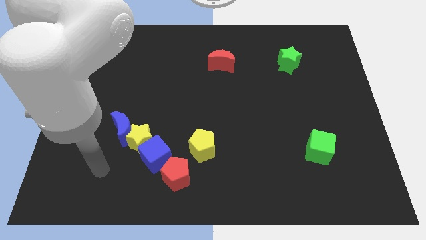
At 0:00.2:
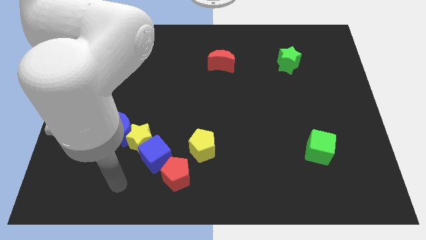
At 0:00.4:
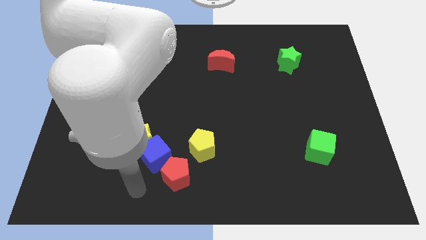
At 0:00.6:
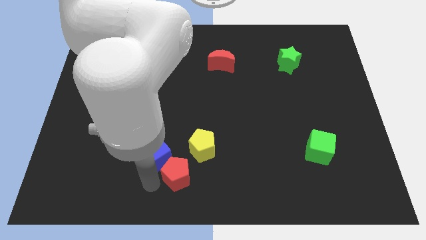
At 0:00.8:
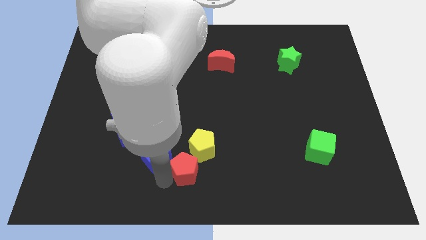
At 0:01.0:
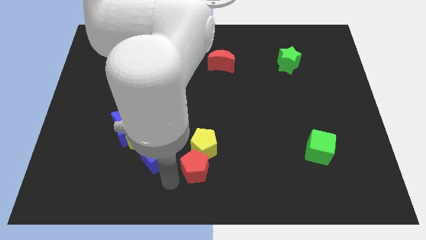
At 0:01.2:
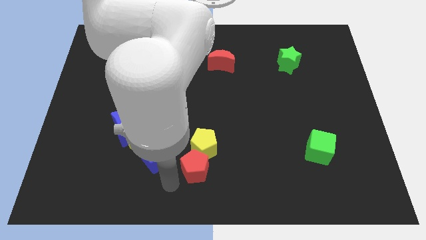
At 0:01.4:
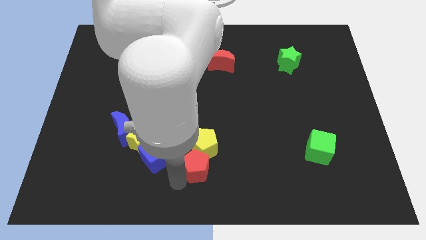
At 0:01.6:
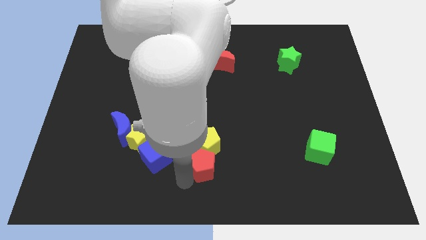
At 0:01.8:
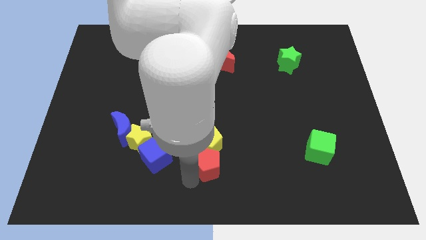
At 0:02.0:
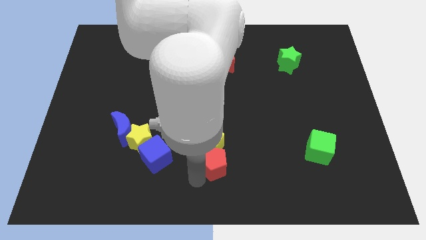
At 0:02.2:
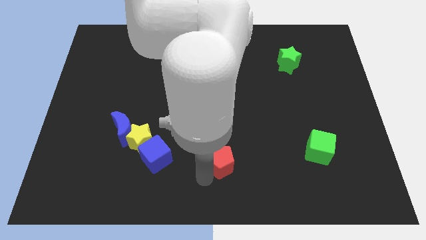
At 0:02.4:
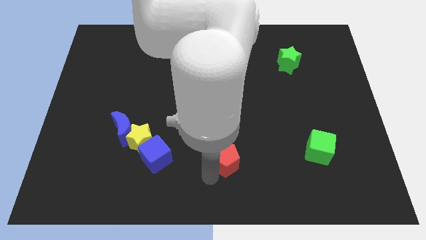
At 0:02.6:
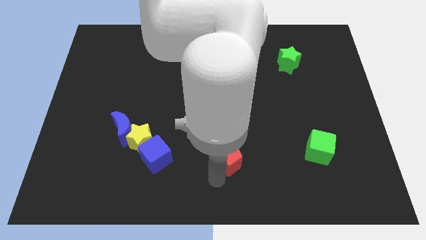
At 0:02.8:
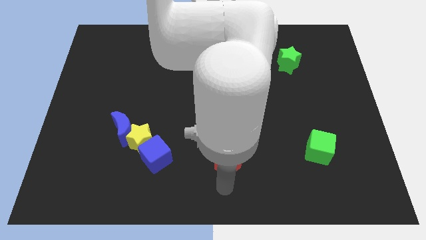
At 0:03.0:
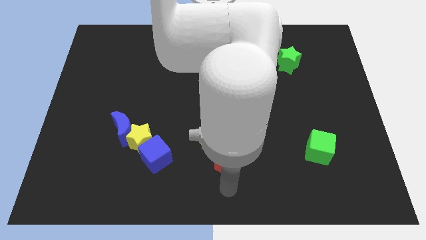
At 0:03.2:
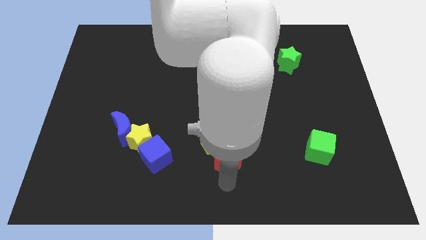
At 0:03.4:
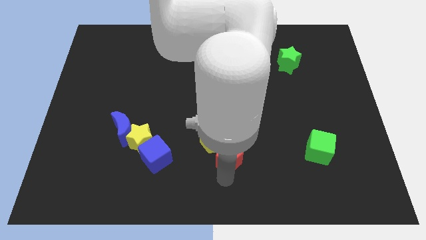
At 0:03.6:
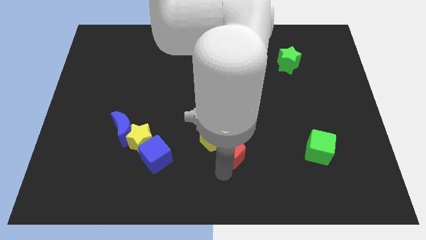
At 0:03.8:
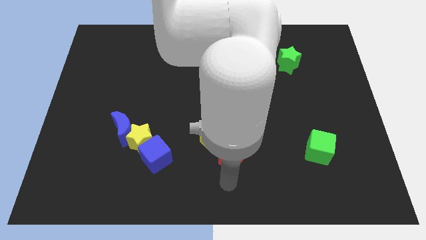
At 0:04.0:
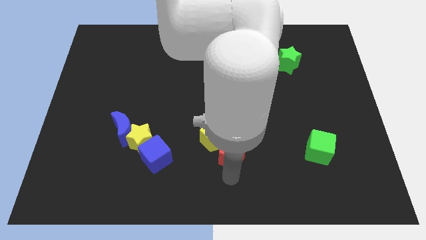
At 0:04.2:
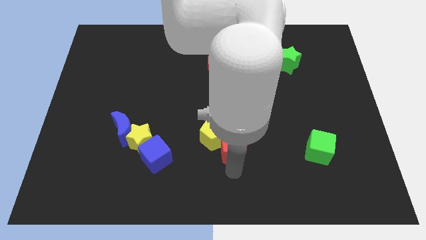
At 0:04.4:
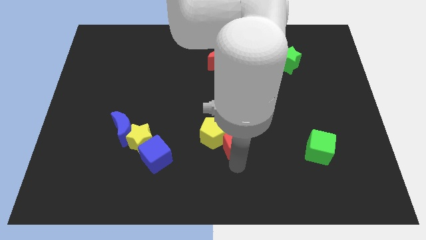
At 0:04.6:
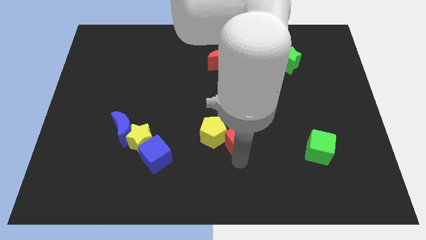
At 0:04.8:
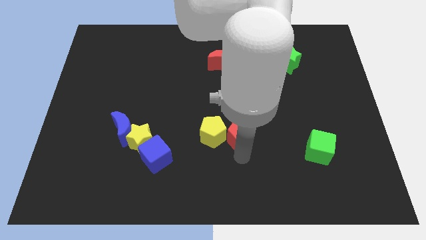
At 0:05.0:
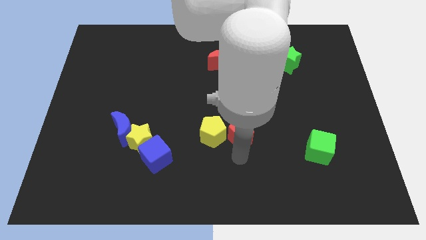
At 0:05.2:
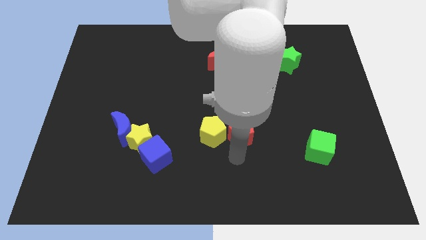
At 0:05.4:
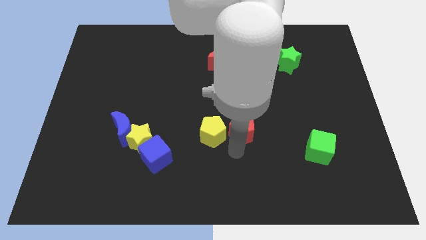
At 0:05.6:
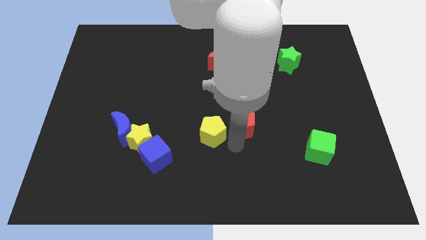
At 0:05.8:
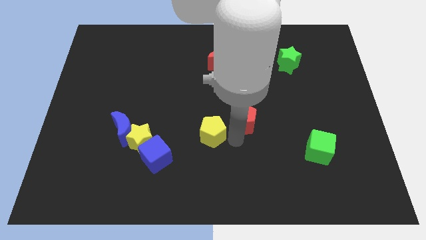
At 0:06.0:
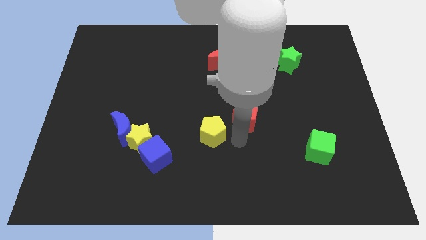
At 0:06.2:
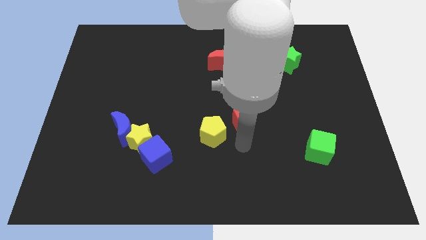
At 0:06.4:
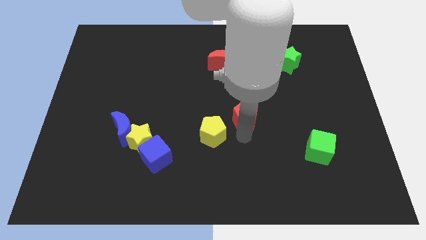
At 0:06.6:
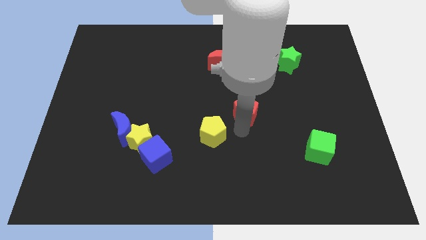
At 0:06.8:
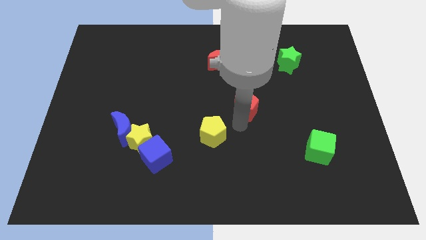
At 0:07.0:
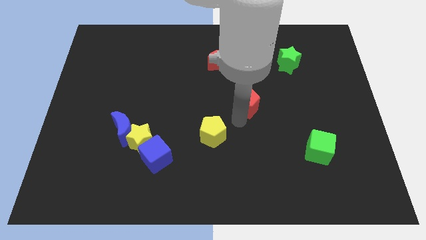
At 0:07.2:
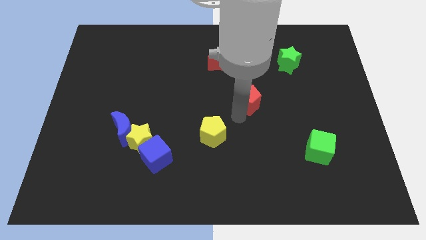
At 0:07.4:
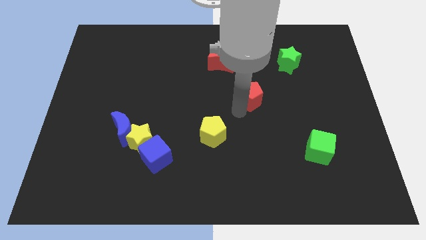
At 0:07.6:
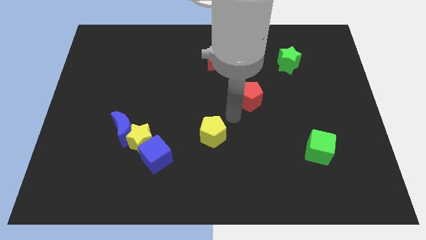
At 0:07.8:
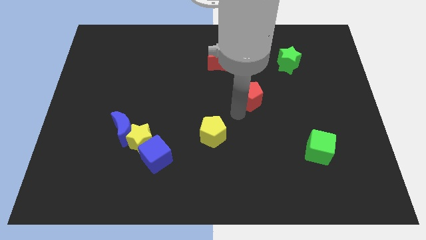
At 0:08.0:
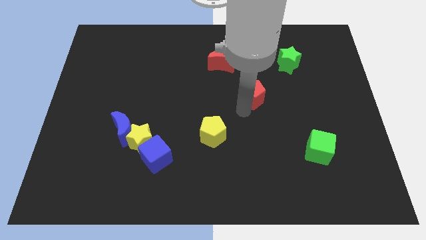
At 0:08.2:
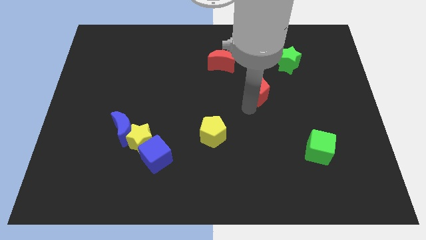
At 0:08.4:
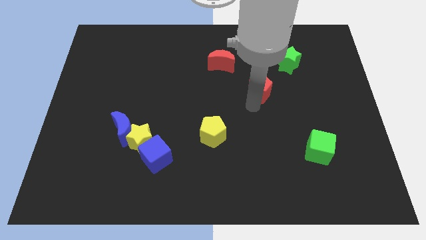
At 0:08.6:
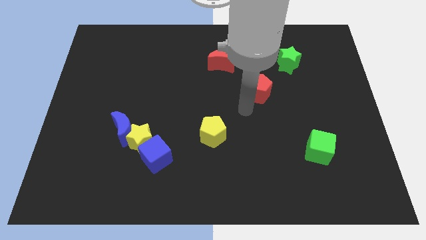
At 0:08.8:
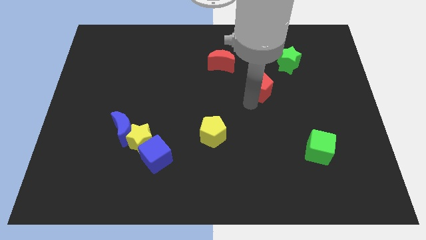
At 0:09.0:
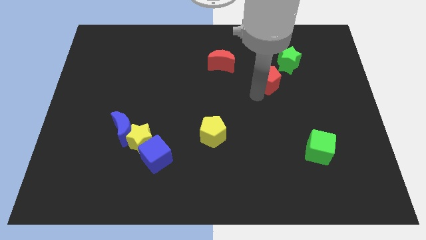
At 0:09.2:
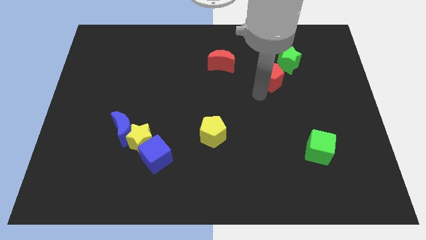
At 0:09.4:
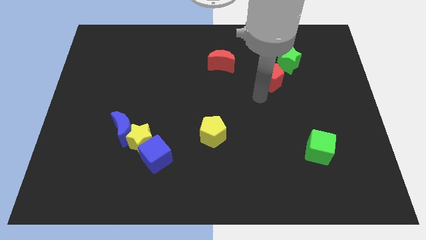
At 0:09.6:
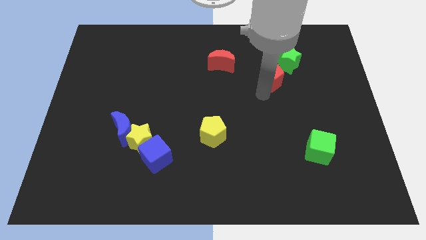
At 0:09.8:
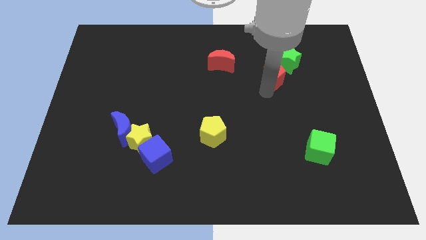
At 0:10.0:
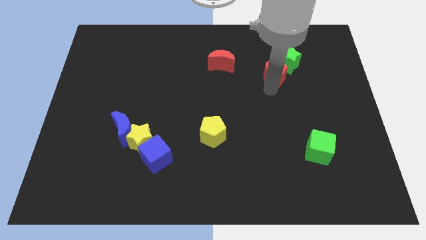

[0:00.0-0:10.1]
push the red pentagon next to the green star

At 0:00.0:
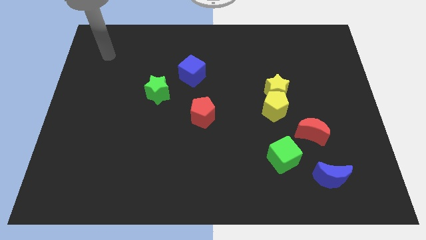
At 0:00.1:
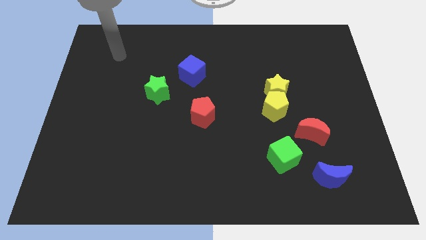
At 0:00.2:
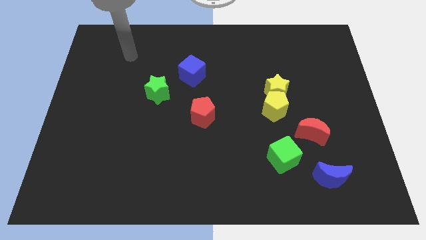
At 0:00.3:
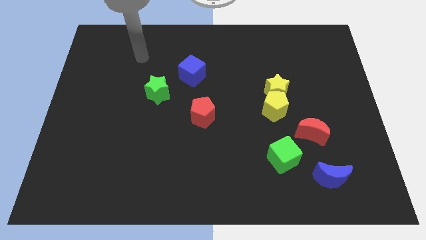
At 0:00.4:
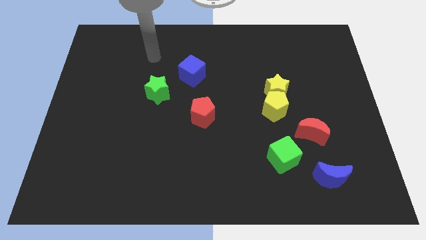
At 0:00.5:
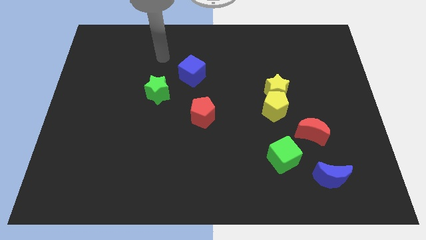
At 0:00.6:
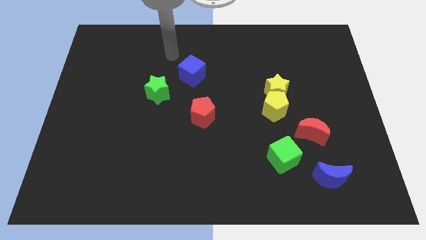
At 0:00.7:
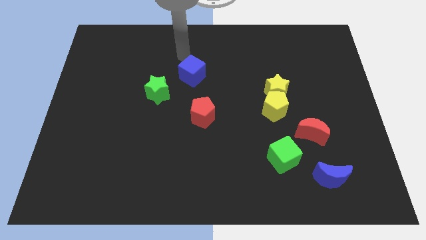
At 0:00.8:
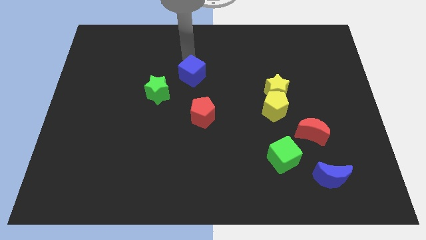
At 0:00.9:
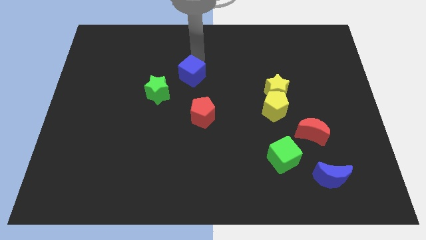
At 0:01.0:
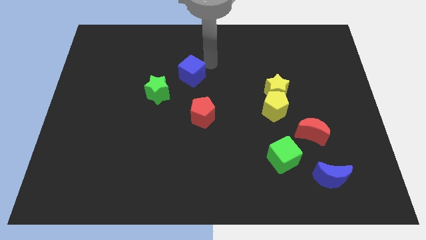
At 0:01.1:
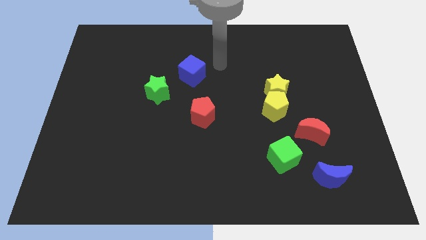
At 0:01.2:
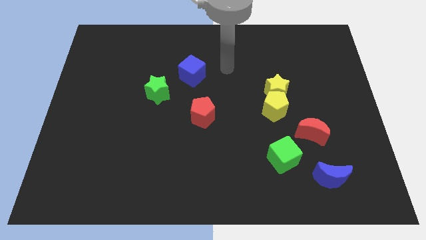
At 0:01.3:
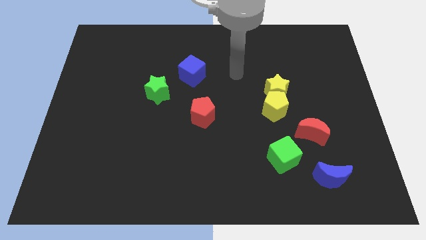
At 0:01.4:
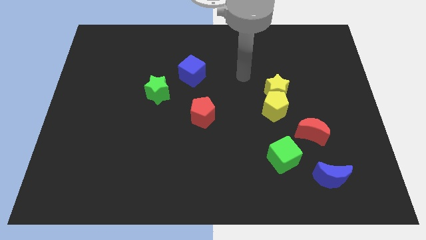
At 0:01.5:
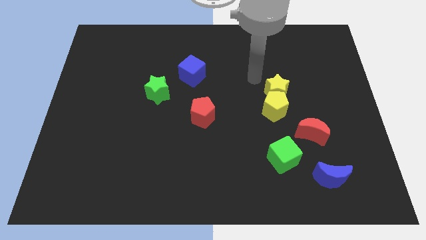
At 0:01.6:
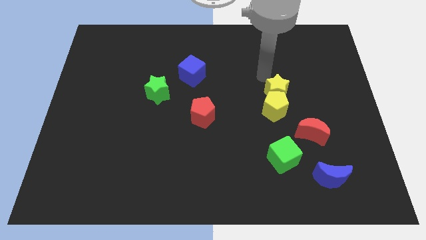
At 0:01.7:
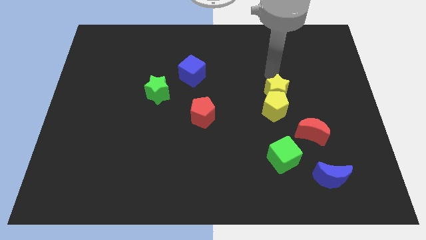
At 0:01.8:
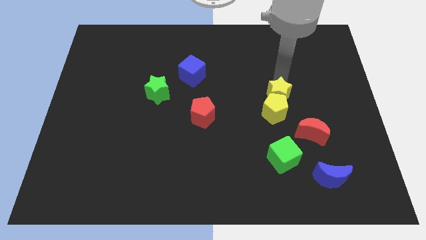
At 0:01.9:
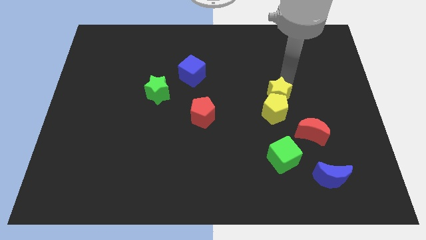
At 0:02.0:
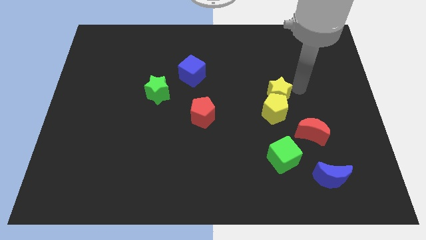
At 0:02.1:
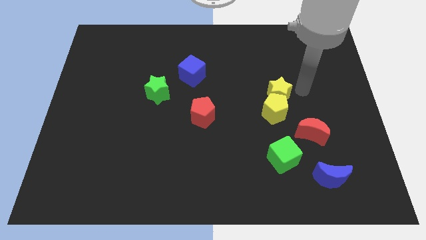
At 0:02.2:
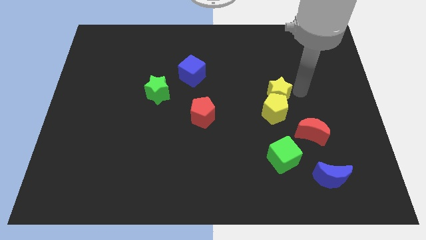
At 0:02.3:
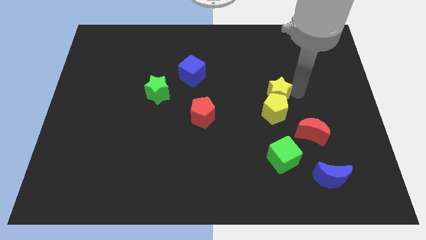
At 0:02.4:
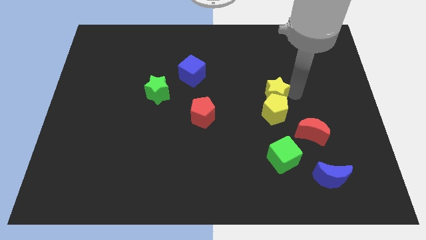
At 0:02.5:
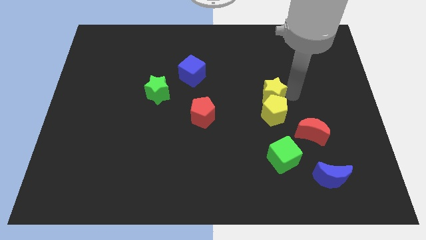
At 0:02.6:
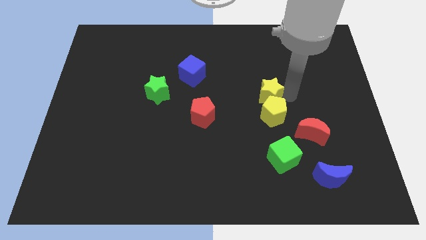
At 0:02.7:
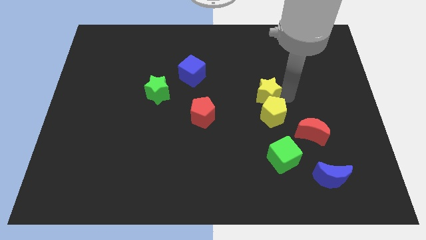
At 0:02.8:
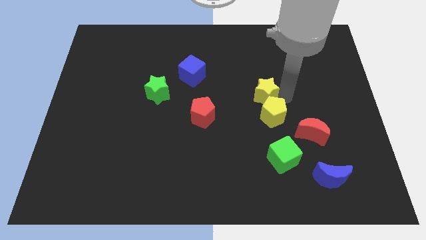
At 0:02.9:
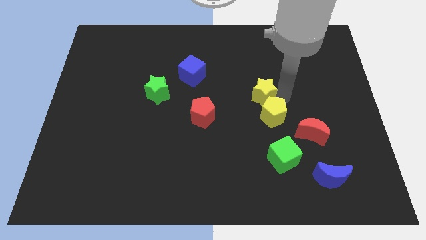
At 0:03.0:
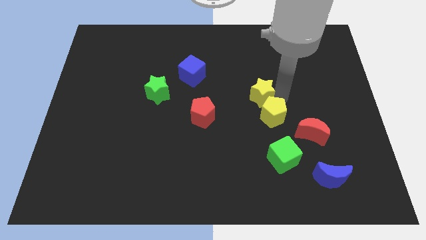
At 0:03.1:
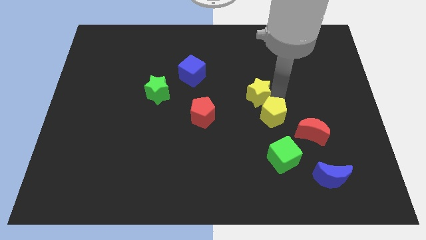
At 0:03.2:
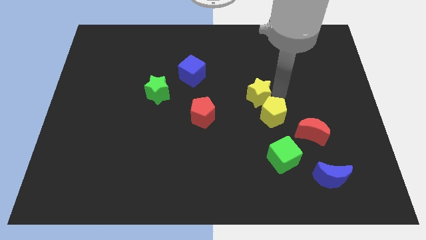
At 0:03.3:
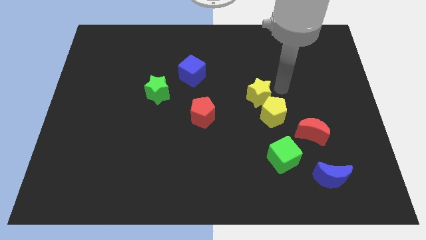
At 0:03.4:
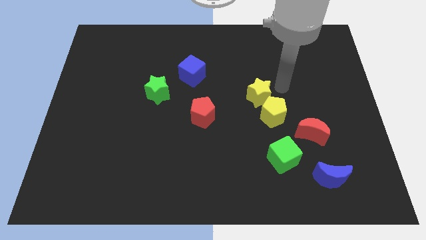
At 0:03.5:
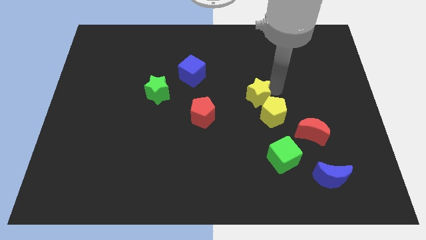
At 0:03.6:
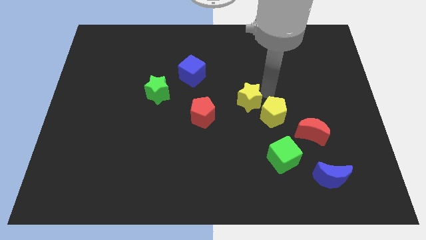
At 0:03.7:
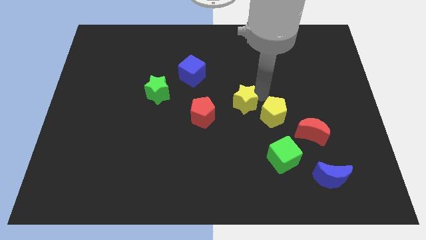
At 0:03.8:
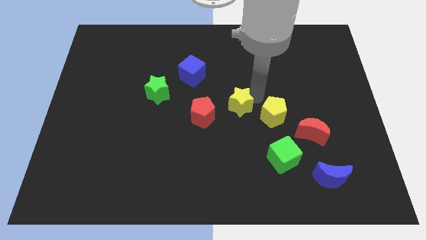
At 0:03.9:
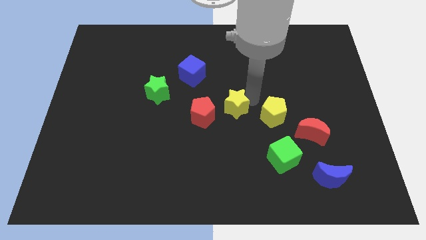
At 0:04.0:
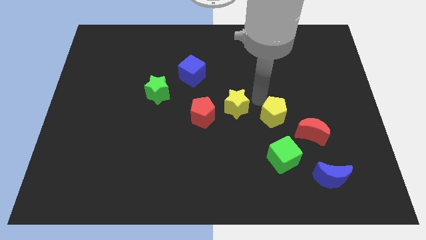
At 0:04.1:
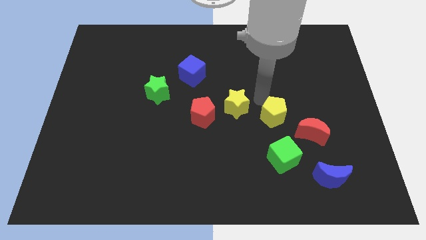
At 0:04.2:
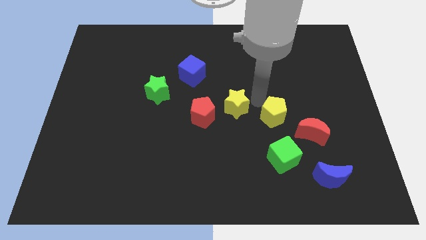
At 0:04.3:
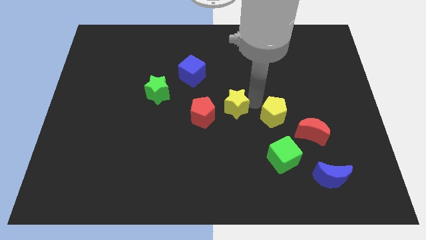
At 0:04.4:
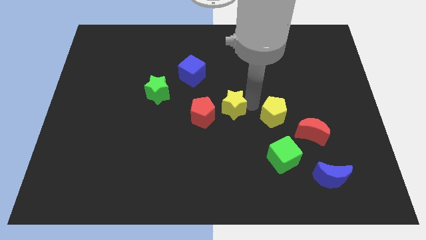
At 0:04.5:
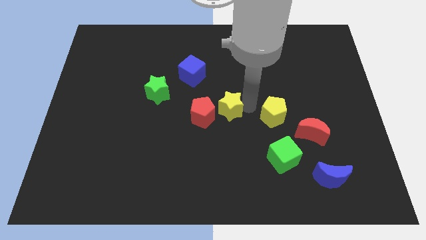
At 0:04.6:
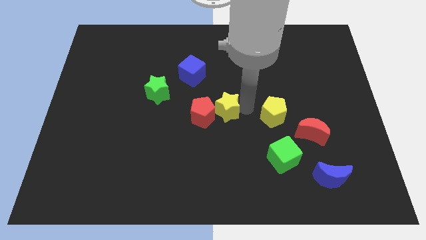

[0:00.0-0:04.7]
put the yellow star next to the red pentagon
